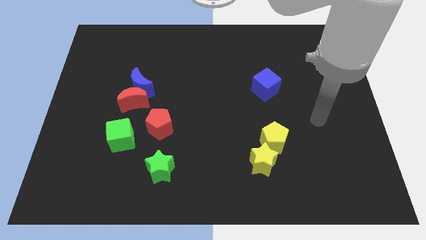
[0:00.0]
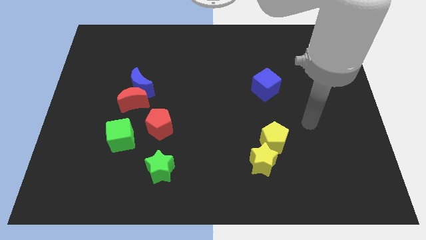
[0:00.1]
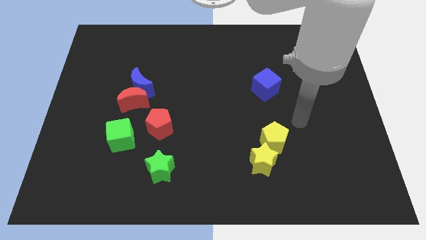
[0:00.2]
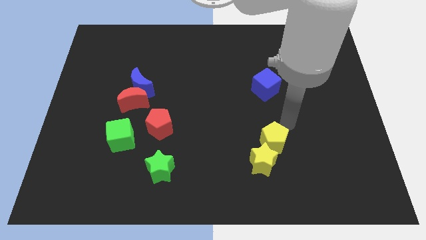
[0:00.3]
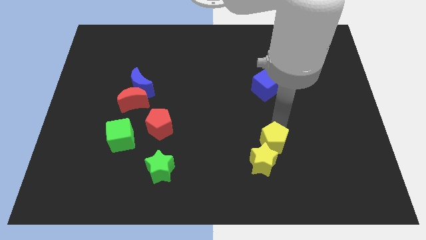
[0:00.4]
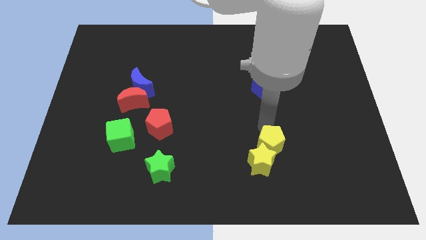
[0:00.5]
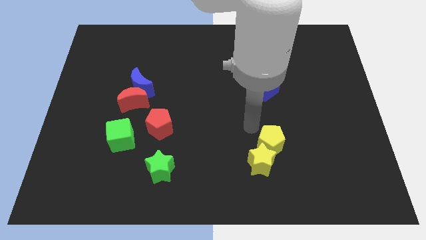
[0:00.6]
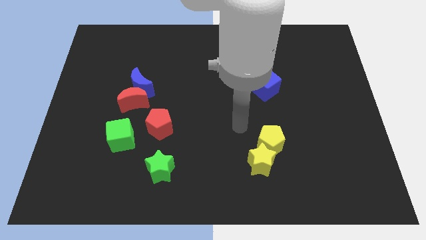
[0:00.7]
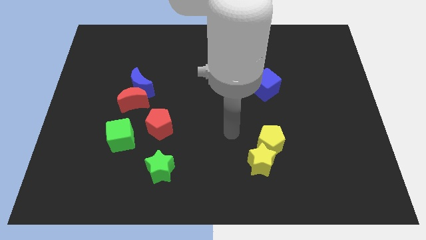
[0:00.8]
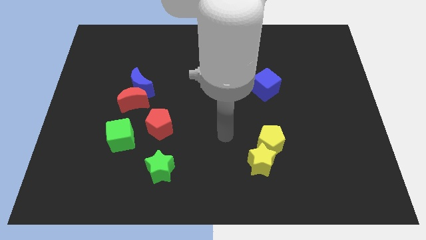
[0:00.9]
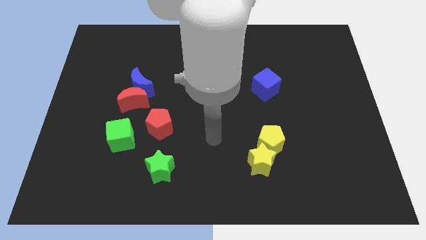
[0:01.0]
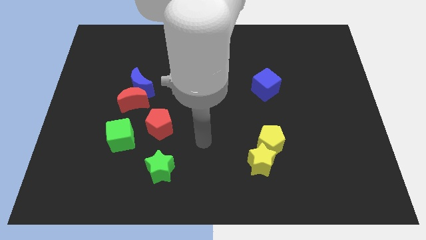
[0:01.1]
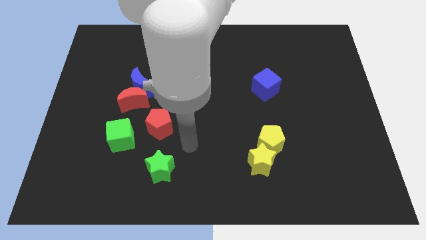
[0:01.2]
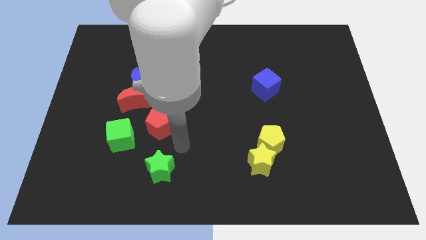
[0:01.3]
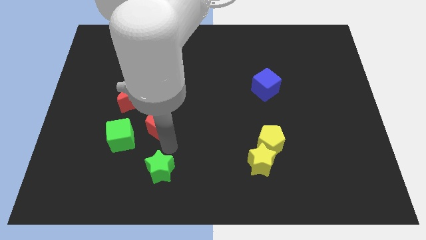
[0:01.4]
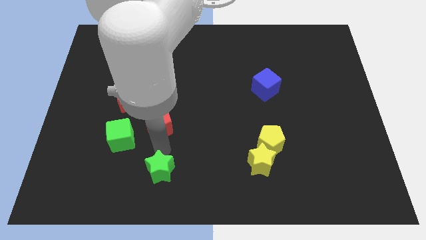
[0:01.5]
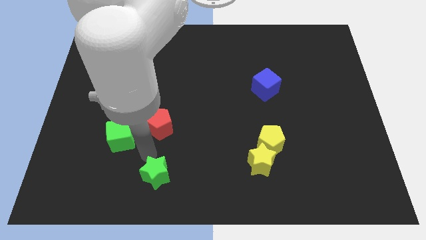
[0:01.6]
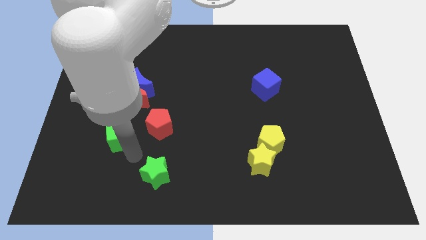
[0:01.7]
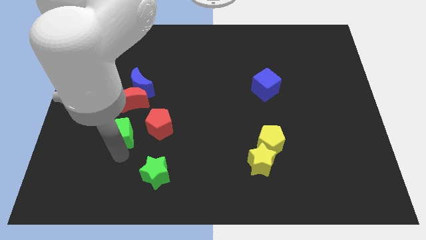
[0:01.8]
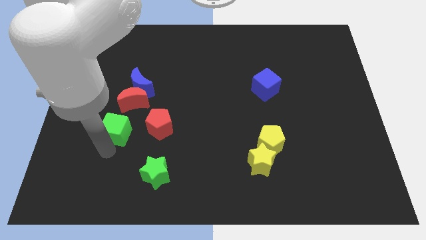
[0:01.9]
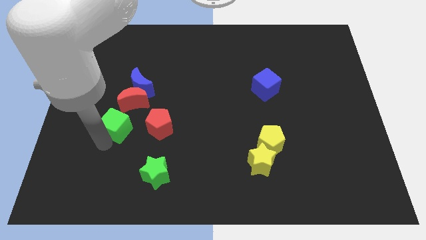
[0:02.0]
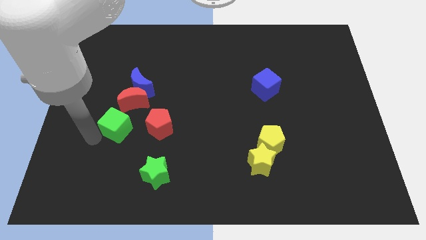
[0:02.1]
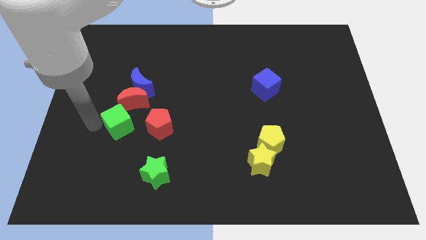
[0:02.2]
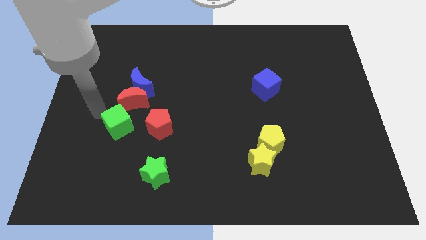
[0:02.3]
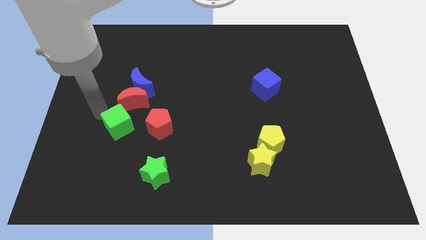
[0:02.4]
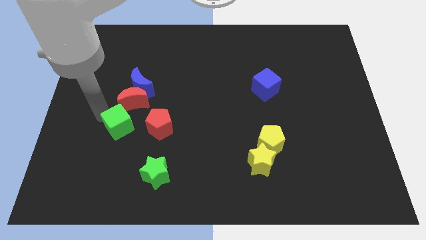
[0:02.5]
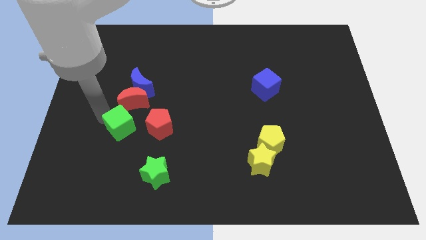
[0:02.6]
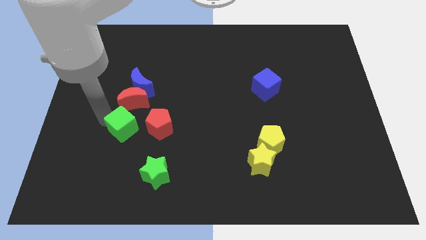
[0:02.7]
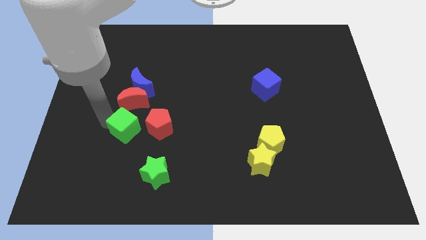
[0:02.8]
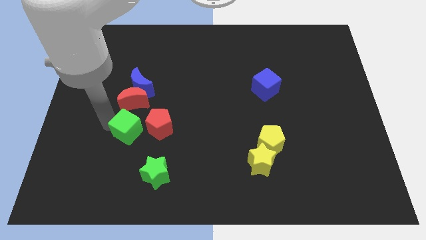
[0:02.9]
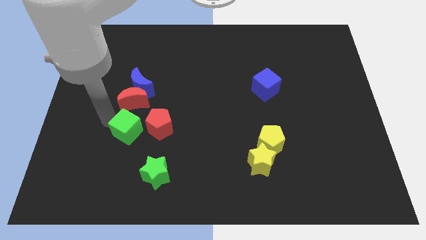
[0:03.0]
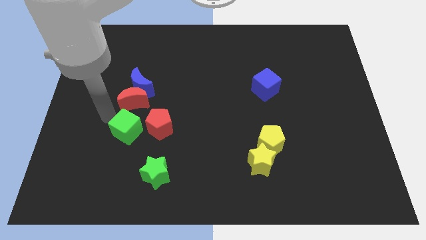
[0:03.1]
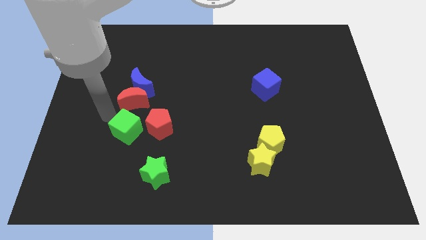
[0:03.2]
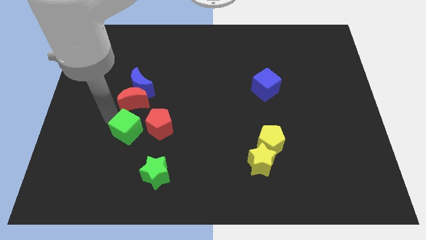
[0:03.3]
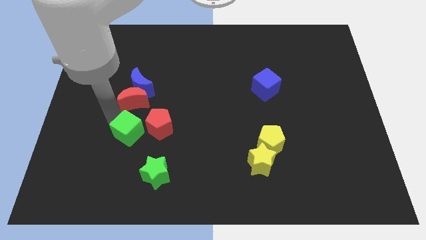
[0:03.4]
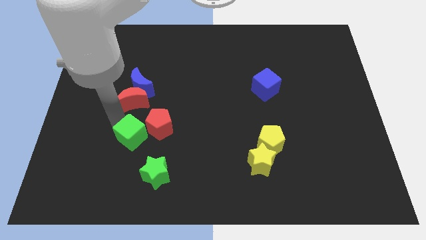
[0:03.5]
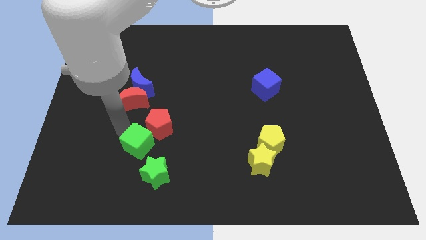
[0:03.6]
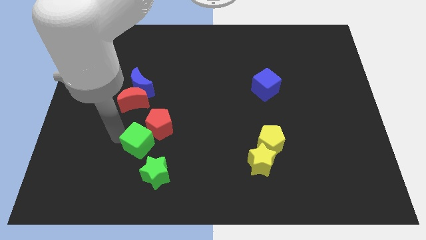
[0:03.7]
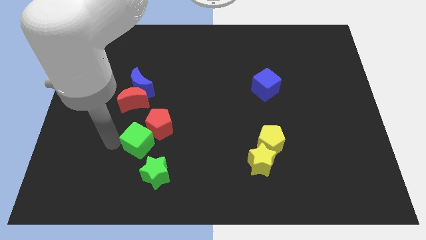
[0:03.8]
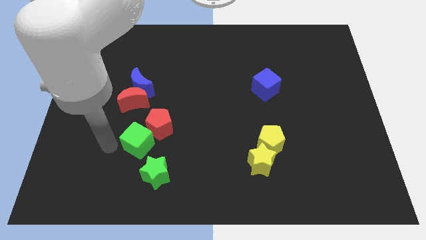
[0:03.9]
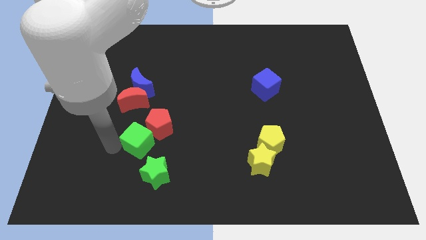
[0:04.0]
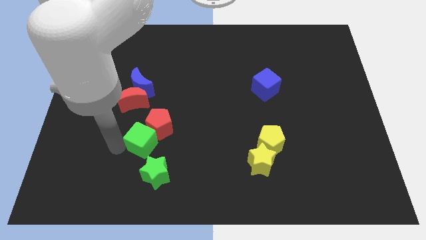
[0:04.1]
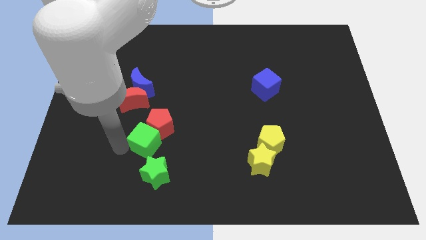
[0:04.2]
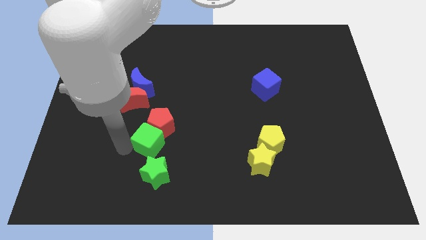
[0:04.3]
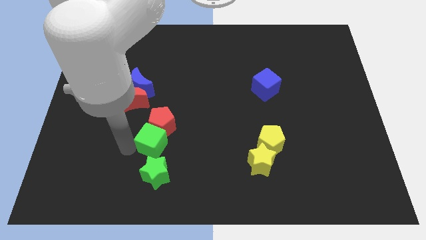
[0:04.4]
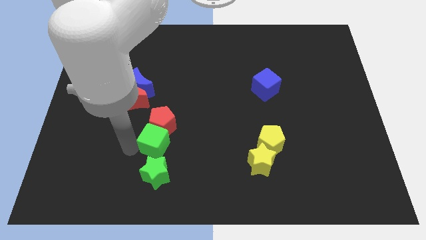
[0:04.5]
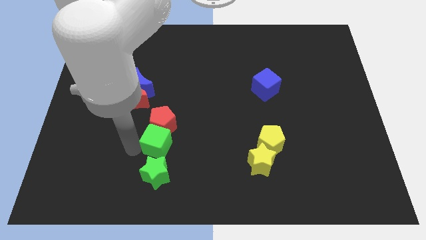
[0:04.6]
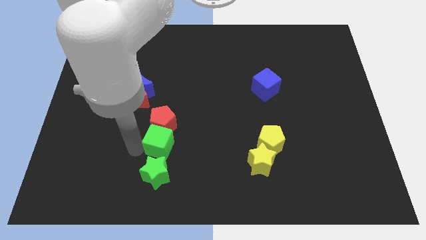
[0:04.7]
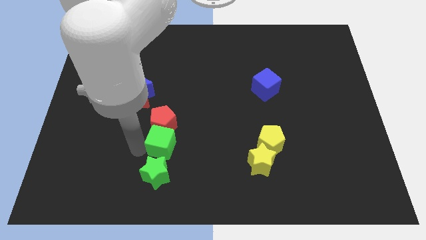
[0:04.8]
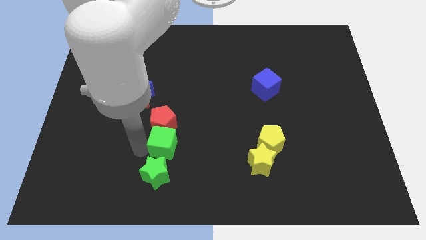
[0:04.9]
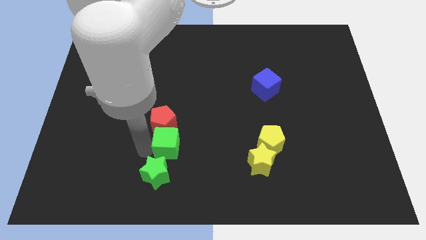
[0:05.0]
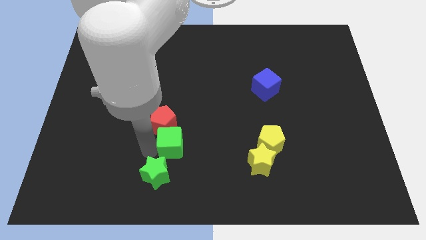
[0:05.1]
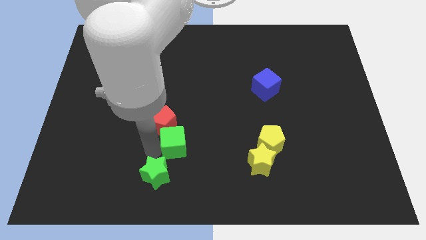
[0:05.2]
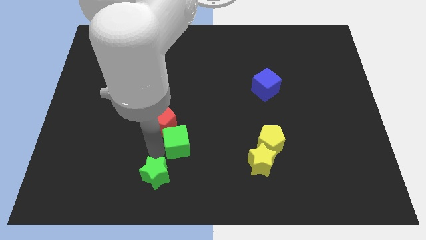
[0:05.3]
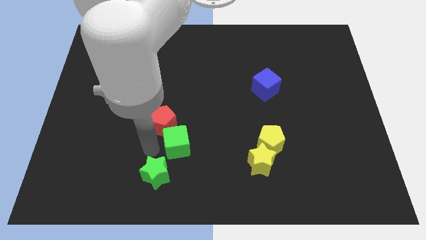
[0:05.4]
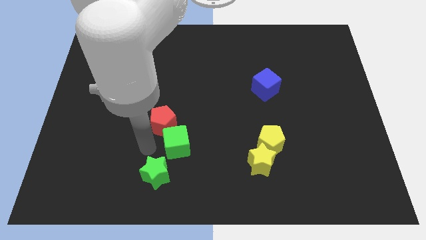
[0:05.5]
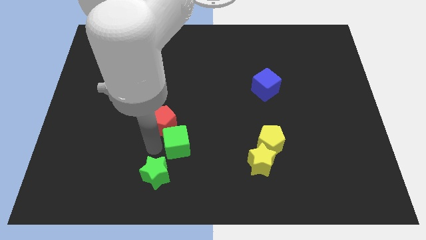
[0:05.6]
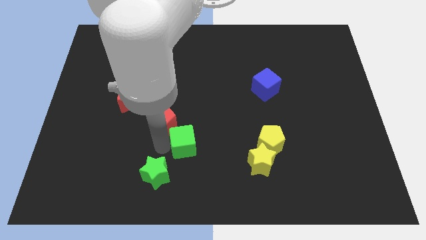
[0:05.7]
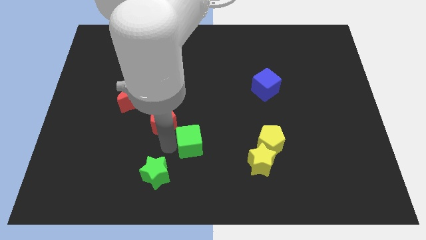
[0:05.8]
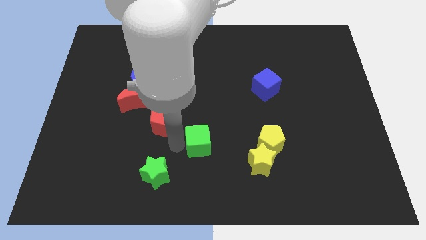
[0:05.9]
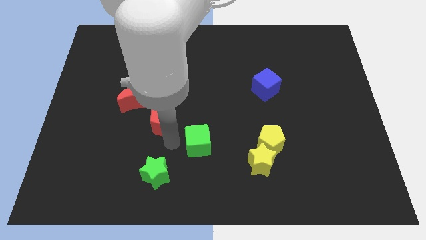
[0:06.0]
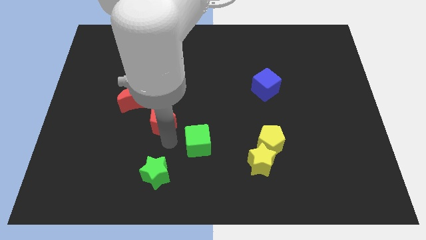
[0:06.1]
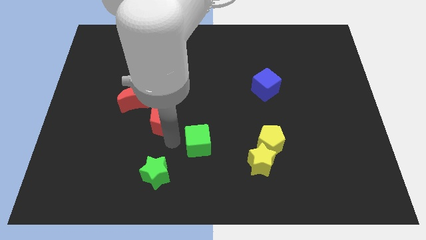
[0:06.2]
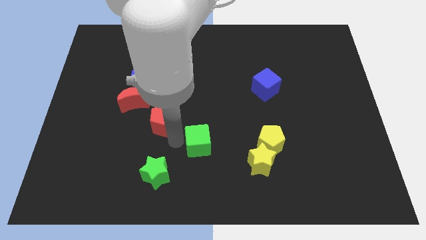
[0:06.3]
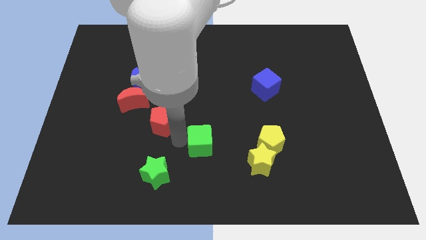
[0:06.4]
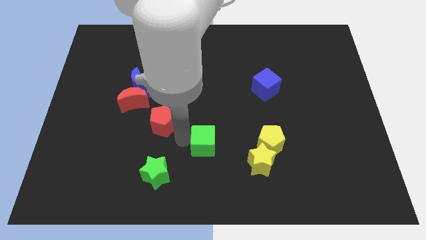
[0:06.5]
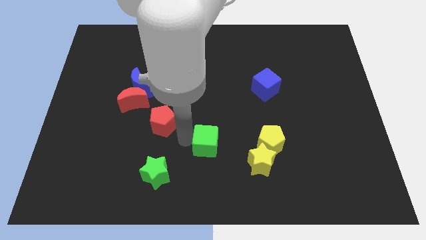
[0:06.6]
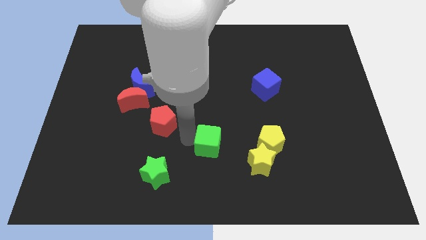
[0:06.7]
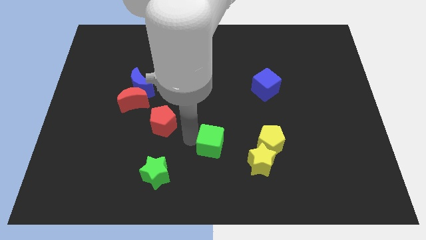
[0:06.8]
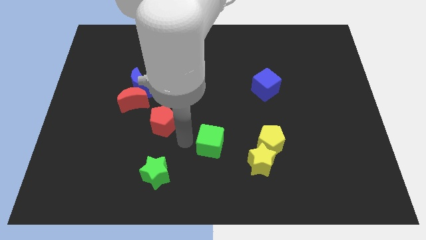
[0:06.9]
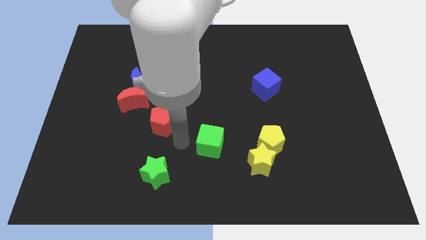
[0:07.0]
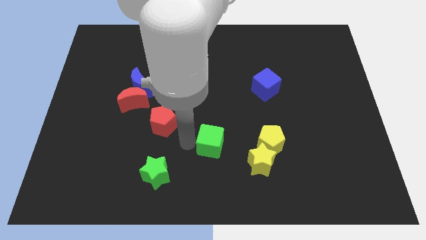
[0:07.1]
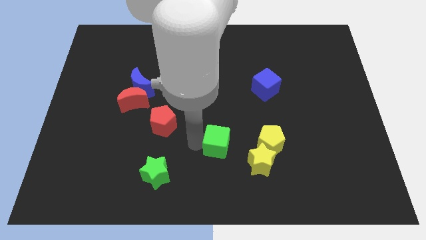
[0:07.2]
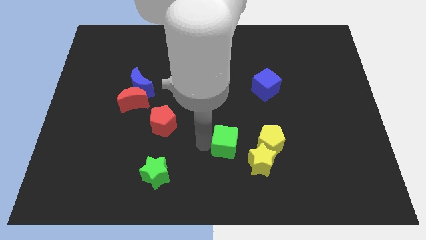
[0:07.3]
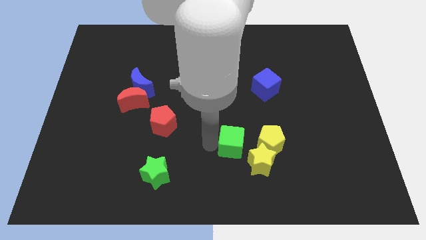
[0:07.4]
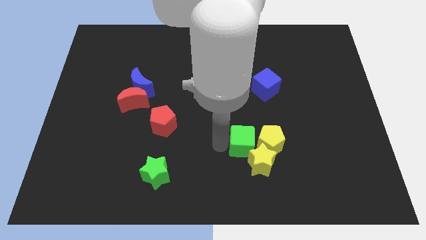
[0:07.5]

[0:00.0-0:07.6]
move the green cube next to the yellow pentagon
